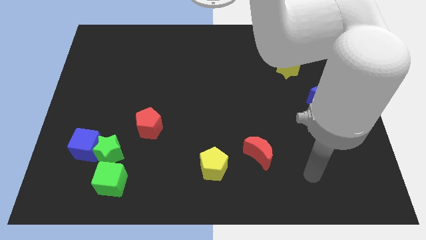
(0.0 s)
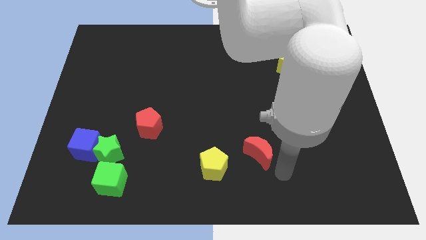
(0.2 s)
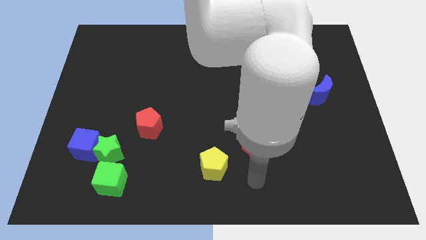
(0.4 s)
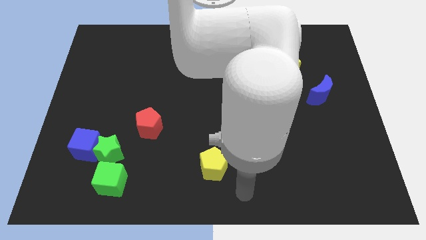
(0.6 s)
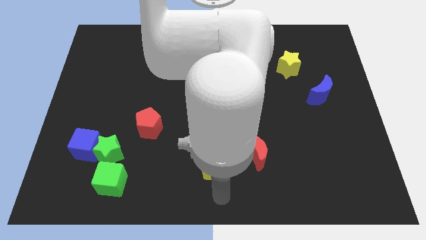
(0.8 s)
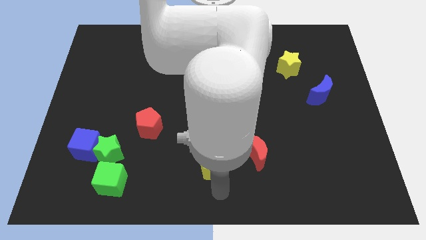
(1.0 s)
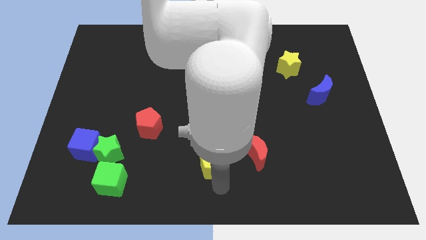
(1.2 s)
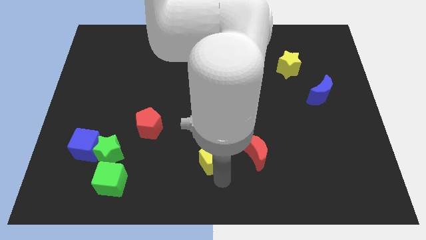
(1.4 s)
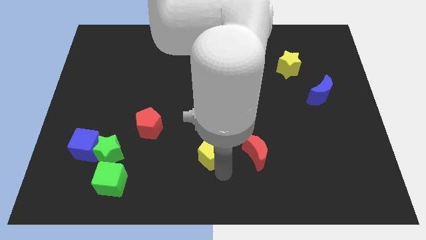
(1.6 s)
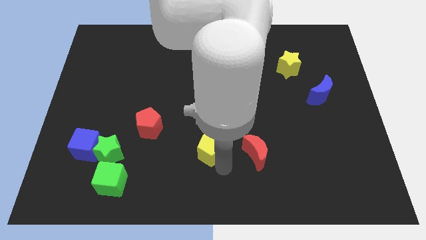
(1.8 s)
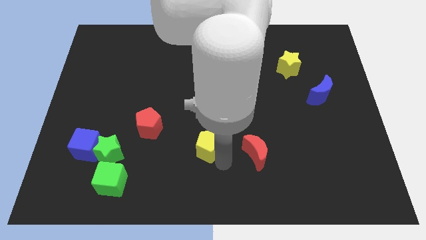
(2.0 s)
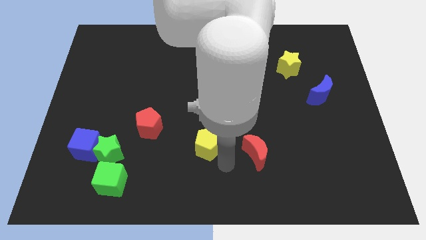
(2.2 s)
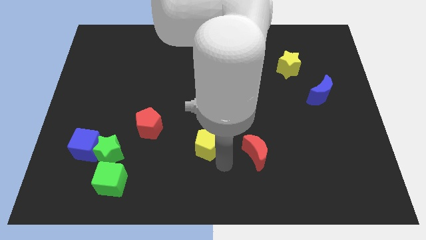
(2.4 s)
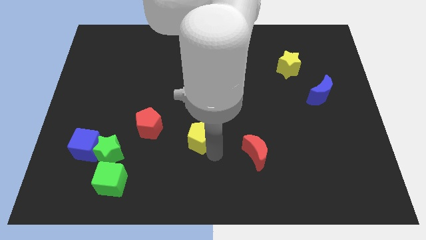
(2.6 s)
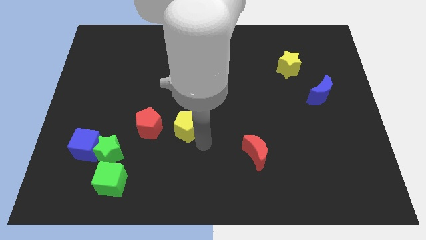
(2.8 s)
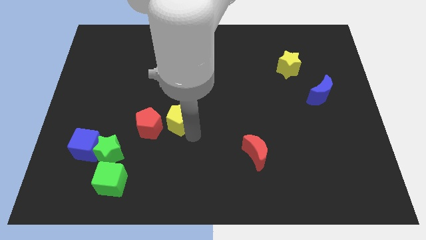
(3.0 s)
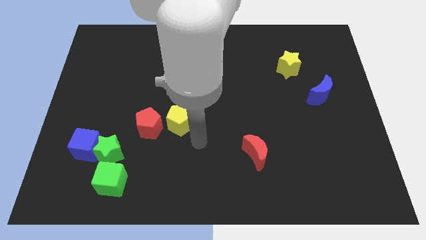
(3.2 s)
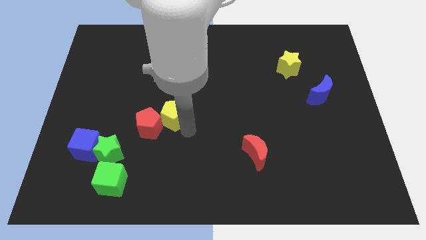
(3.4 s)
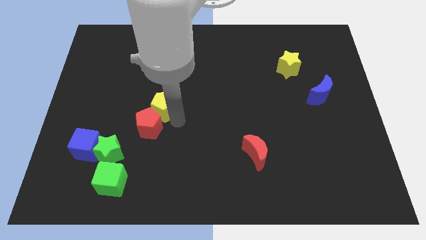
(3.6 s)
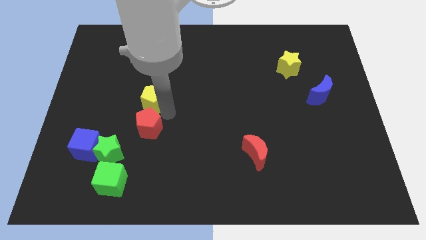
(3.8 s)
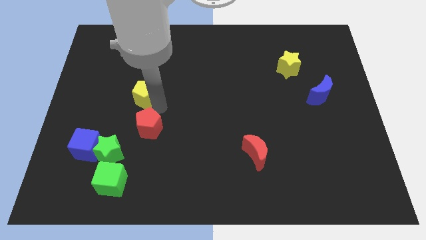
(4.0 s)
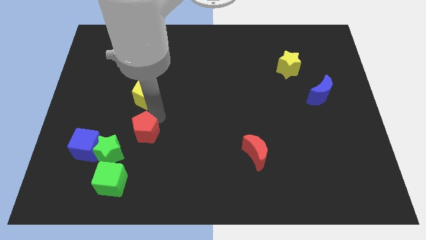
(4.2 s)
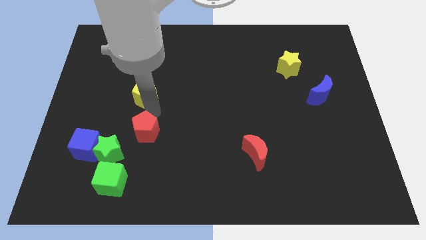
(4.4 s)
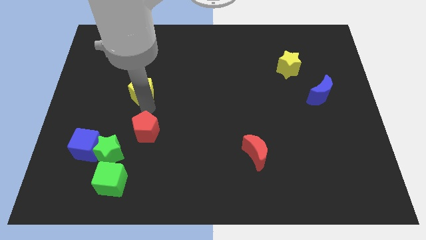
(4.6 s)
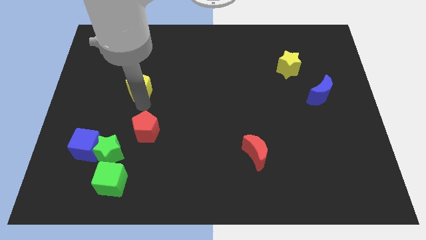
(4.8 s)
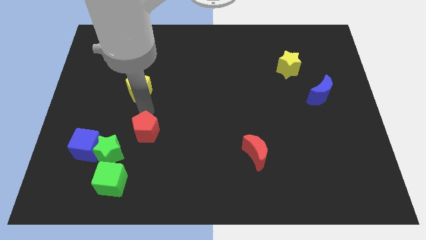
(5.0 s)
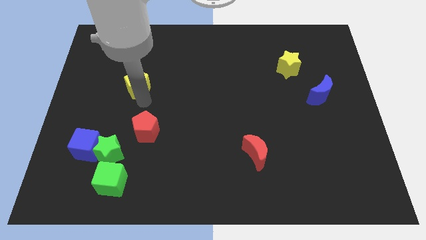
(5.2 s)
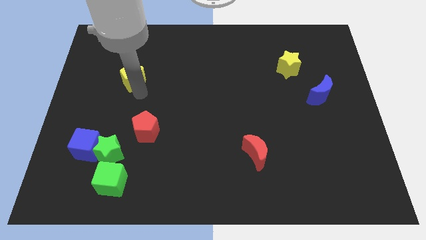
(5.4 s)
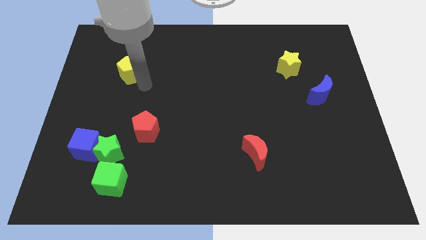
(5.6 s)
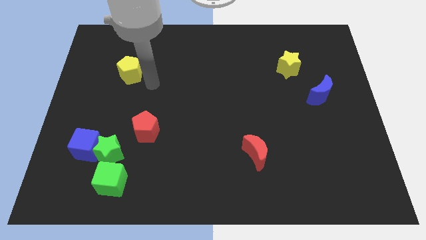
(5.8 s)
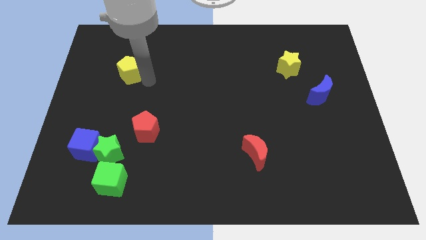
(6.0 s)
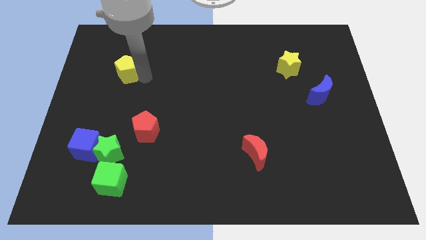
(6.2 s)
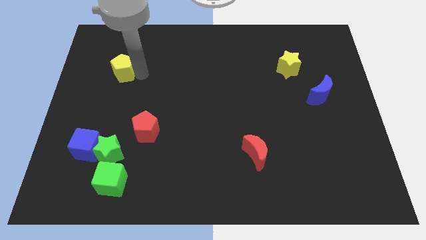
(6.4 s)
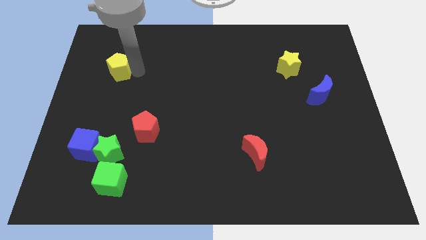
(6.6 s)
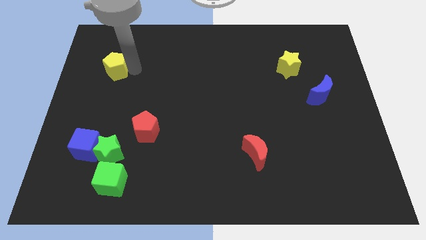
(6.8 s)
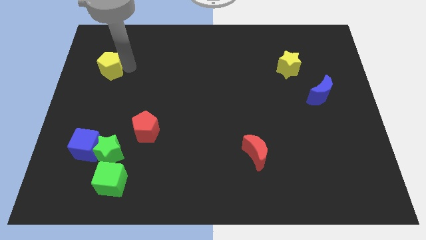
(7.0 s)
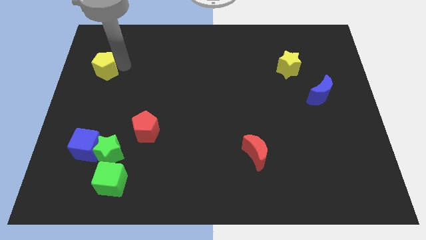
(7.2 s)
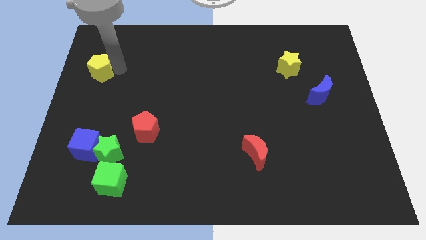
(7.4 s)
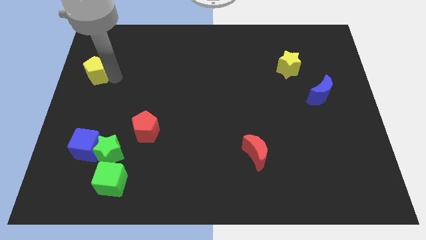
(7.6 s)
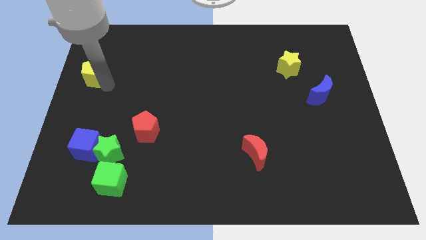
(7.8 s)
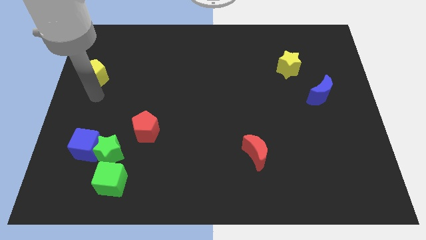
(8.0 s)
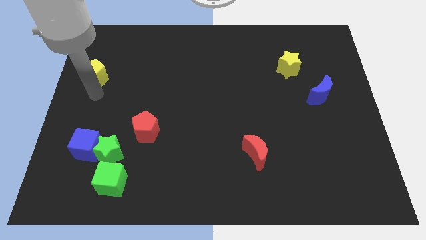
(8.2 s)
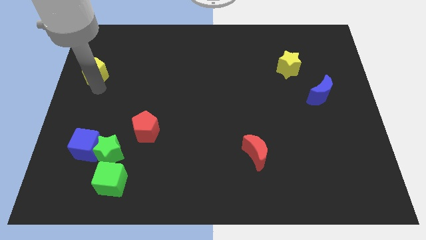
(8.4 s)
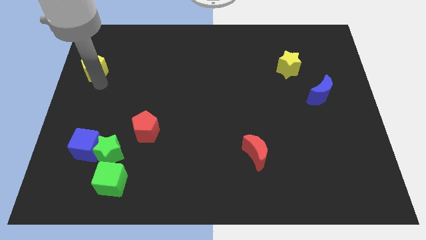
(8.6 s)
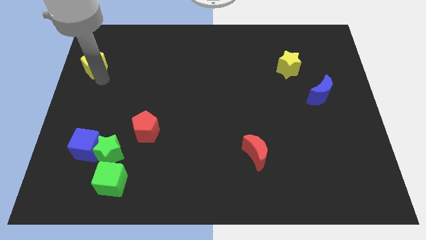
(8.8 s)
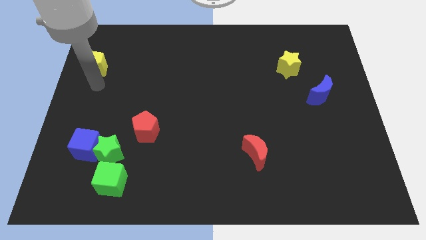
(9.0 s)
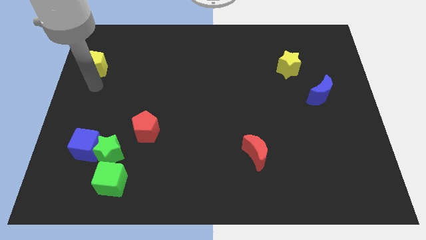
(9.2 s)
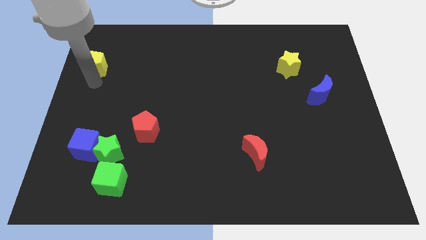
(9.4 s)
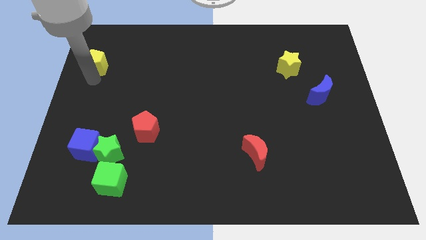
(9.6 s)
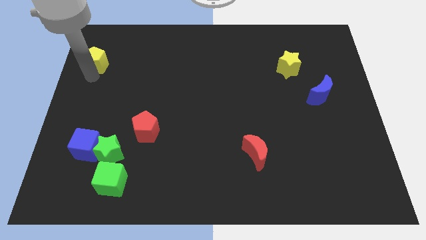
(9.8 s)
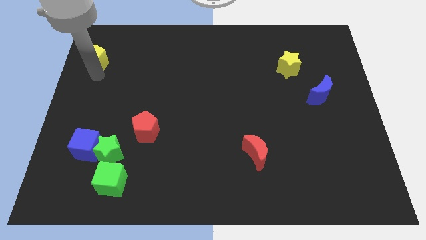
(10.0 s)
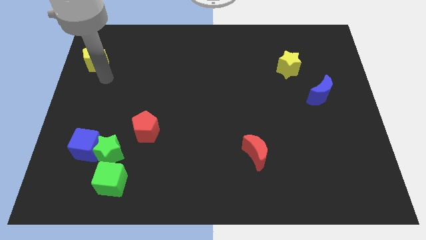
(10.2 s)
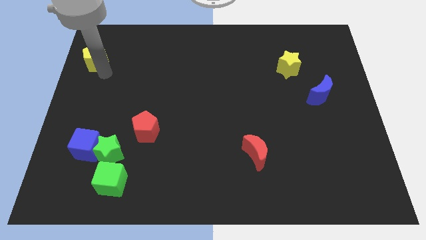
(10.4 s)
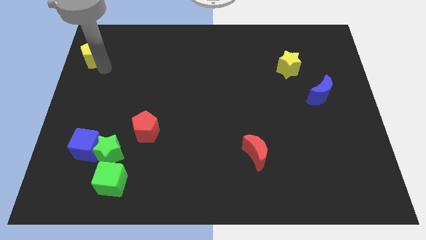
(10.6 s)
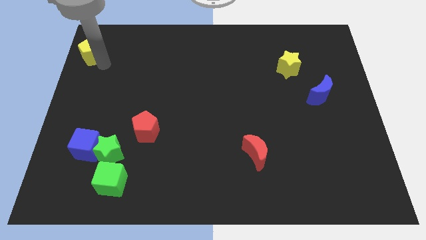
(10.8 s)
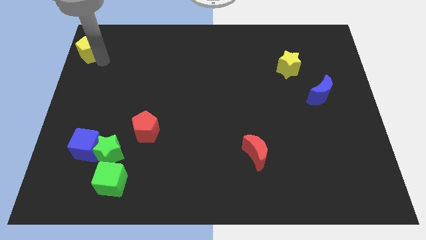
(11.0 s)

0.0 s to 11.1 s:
slide the yellow pentagon to the upper left corner
